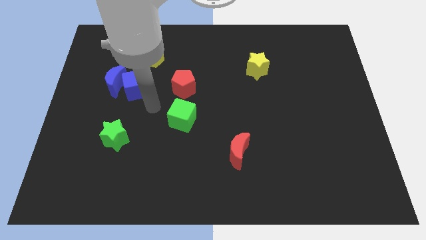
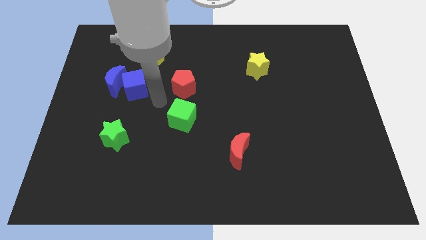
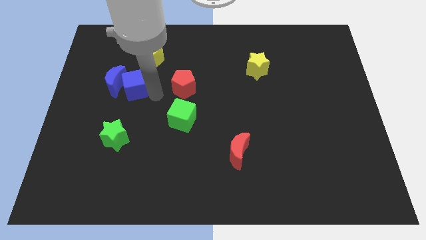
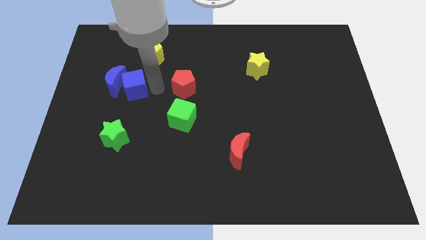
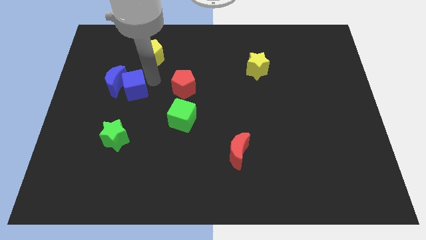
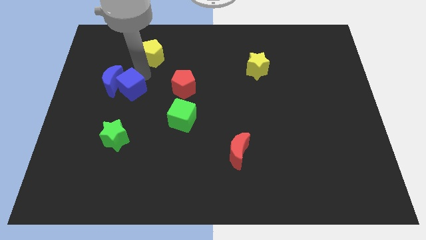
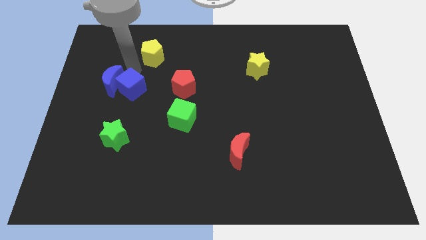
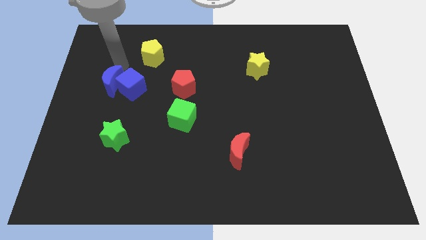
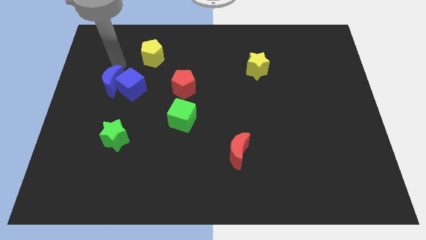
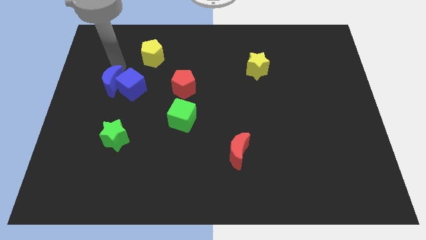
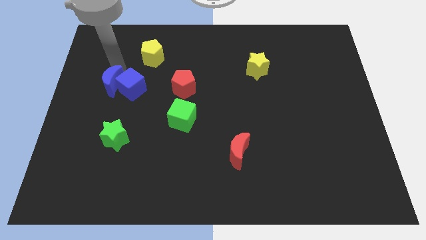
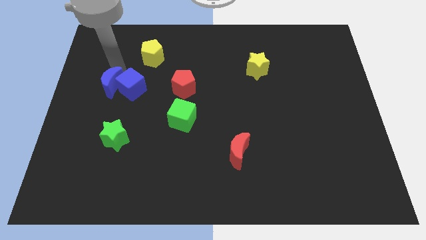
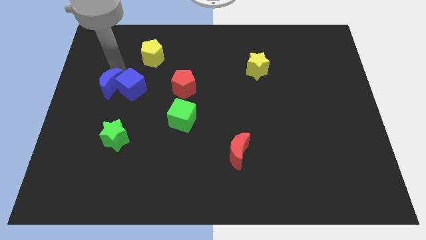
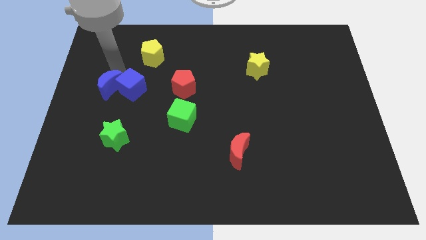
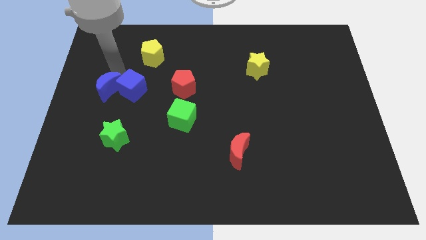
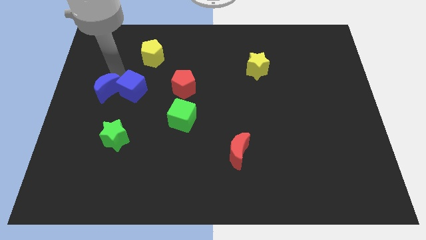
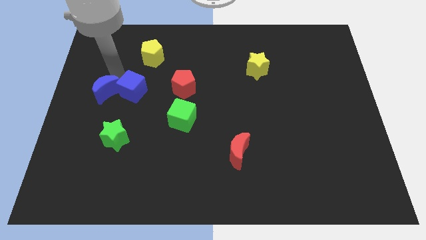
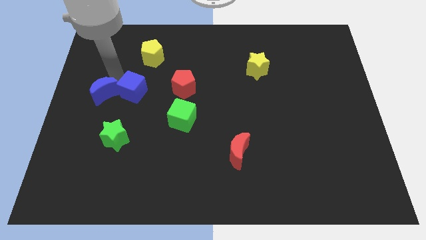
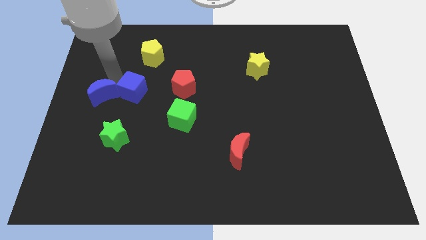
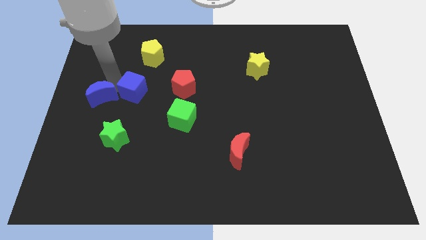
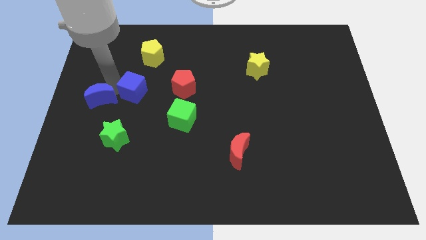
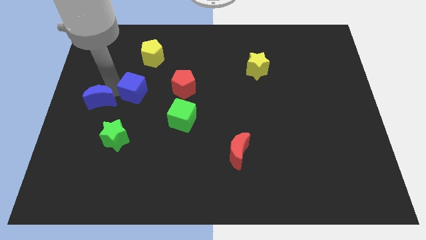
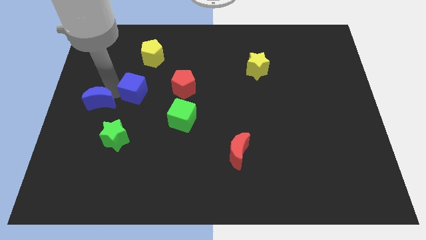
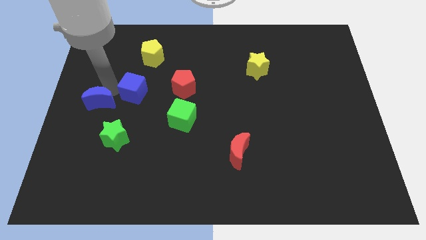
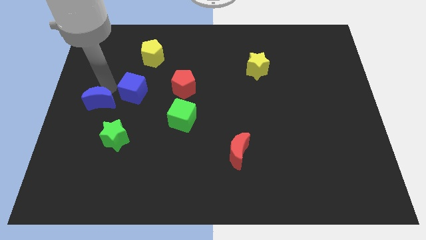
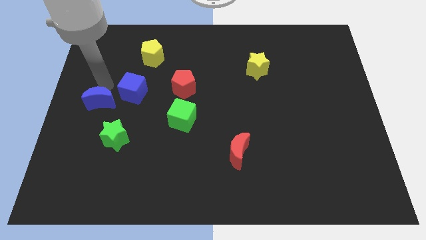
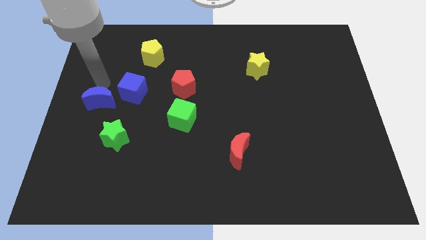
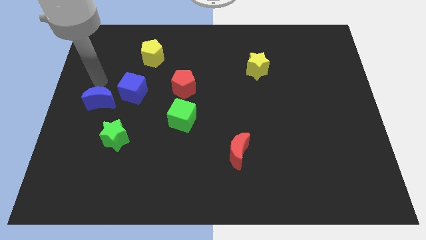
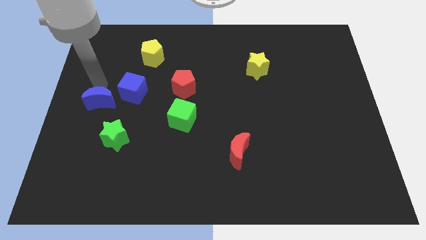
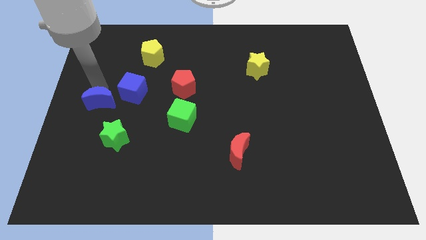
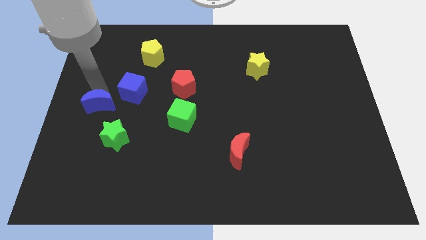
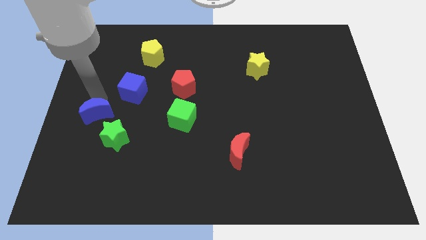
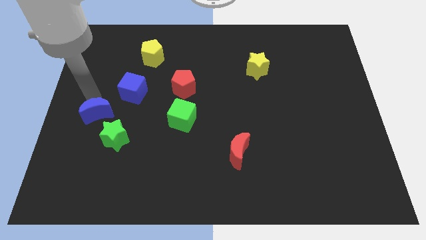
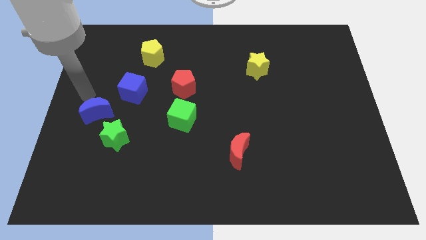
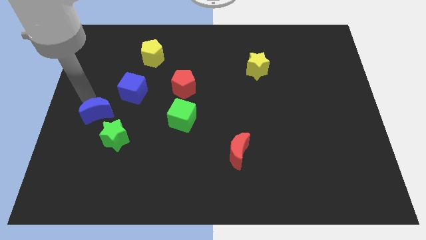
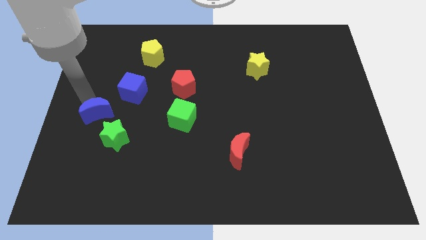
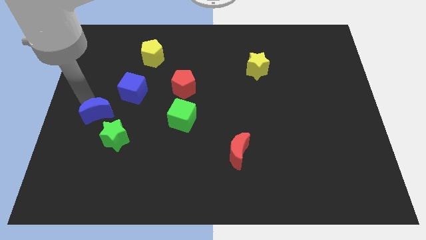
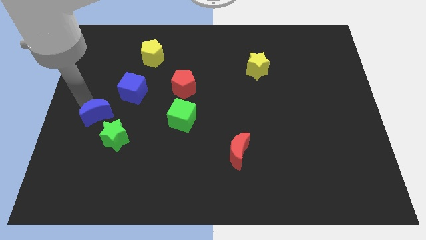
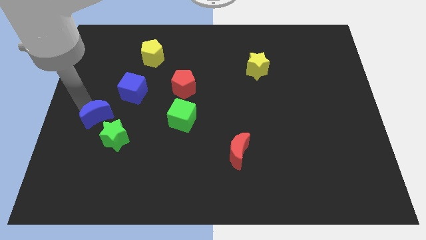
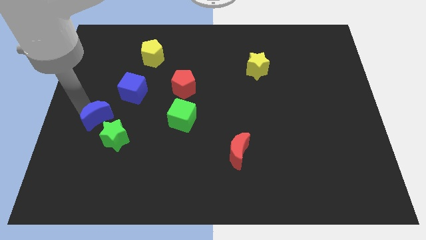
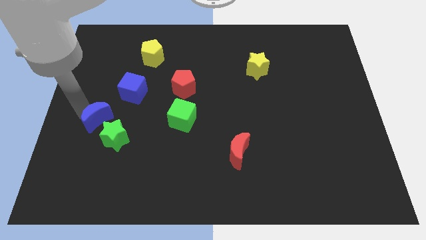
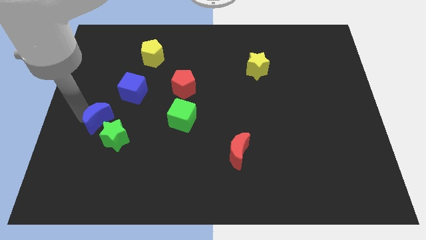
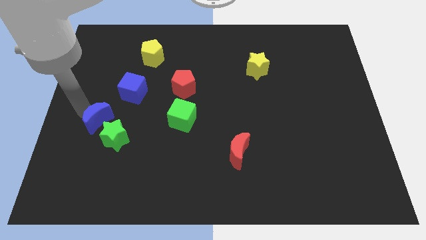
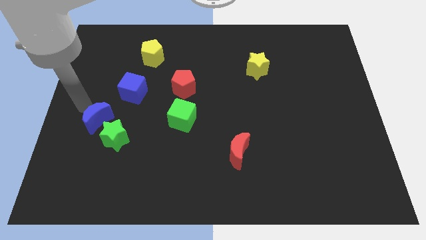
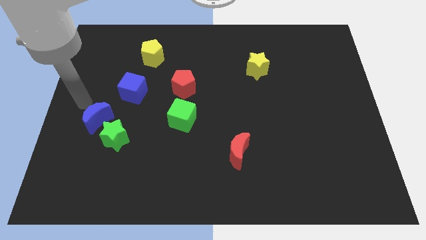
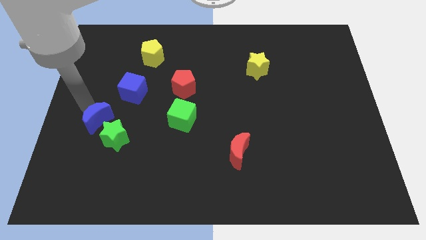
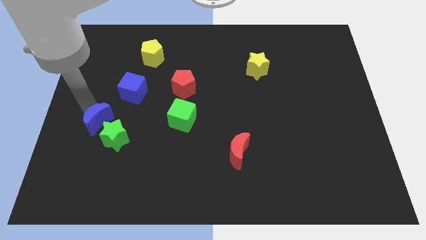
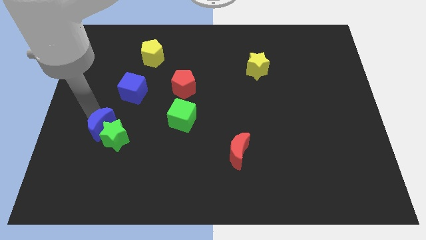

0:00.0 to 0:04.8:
slide the blue moon towards the green star

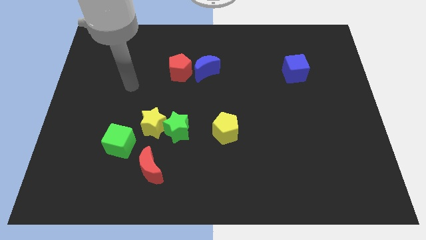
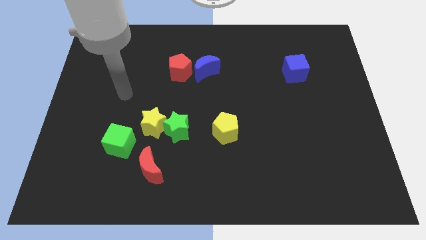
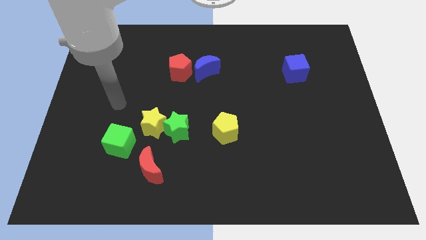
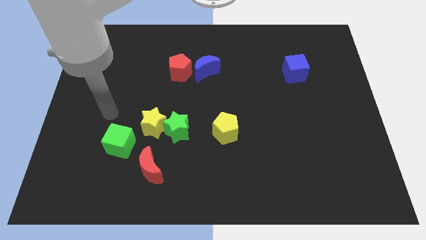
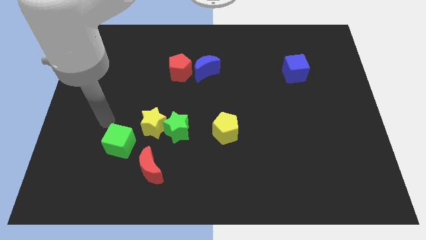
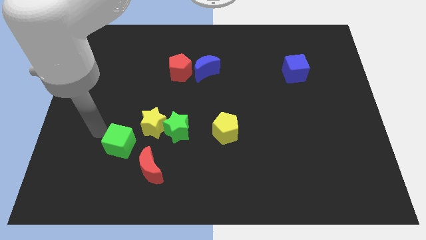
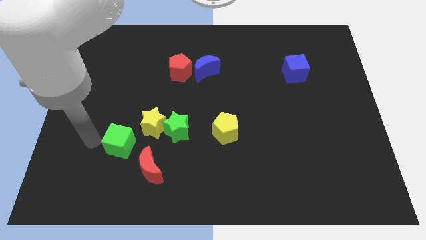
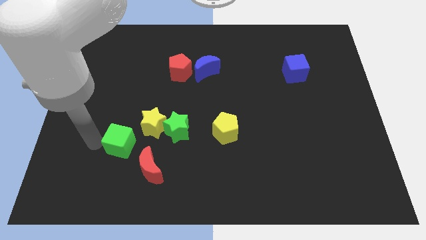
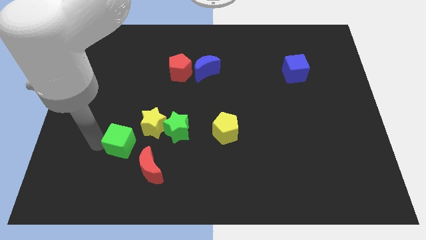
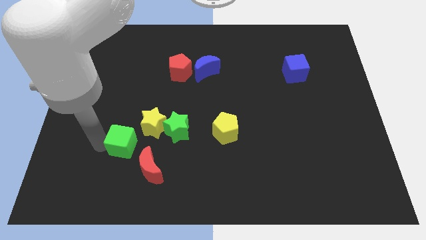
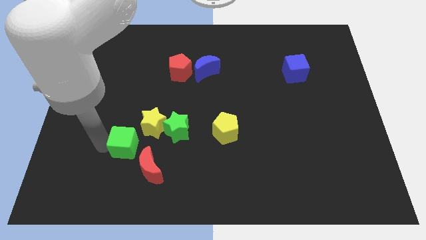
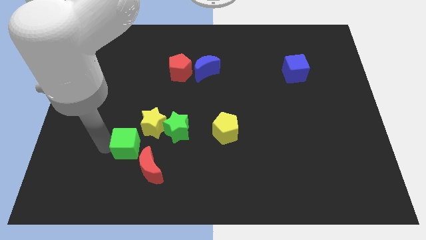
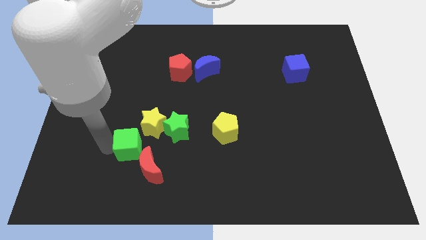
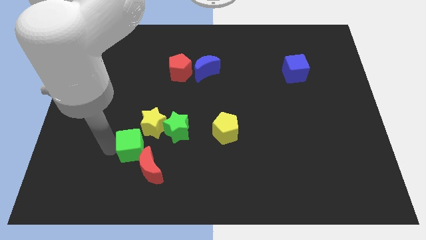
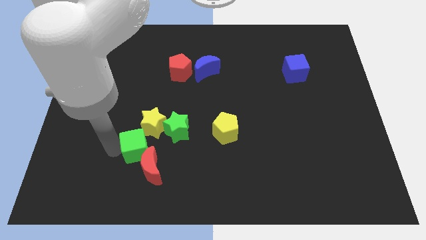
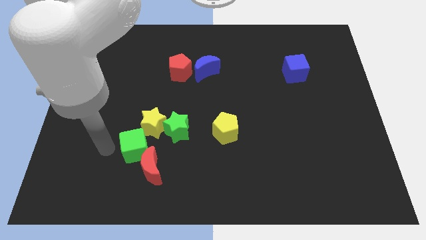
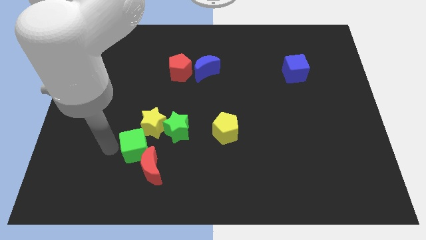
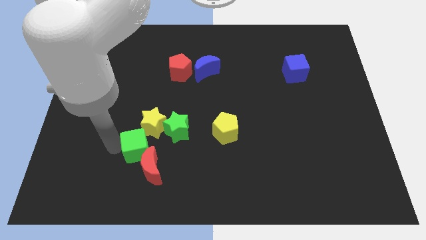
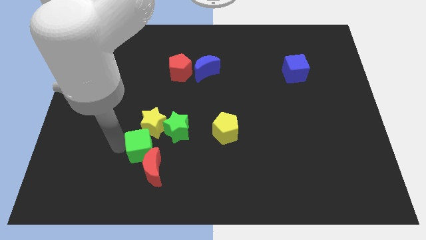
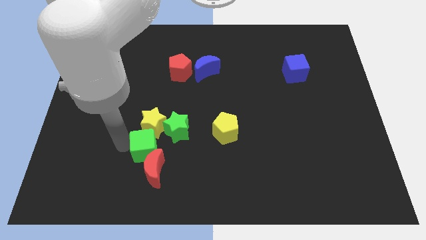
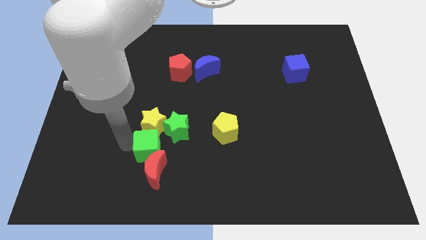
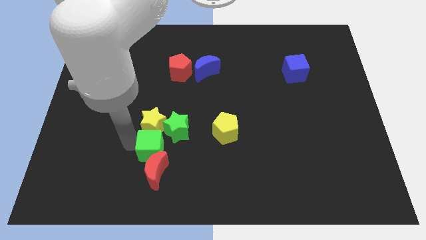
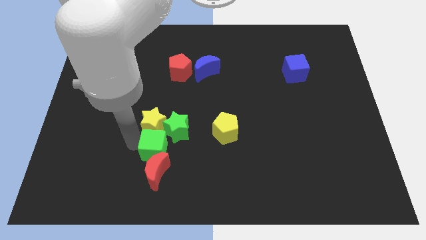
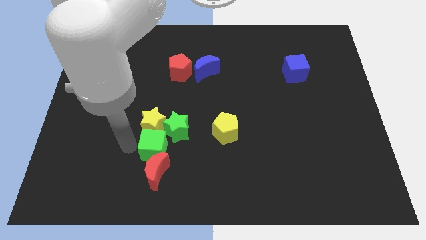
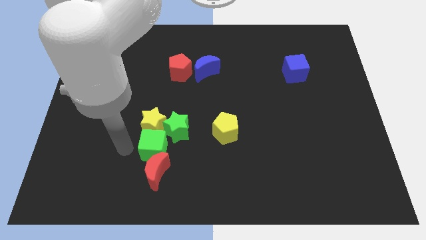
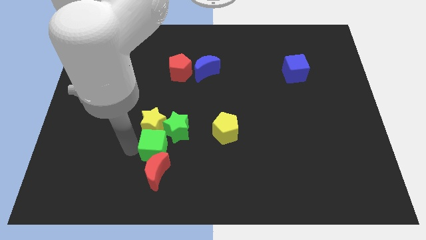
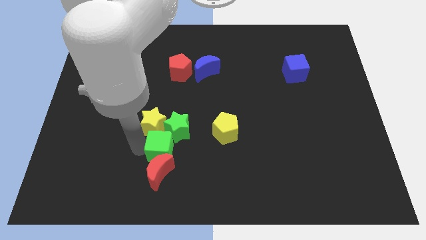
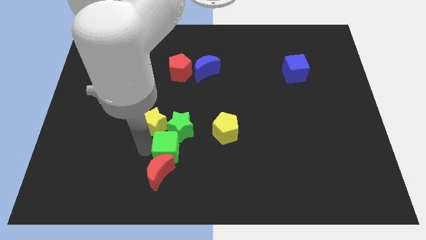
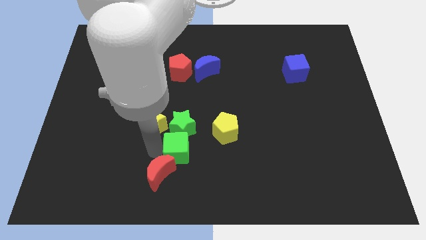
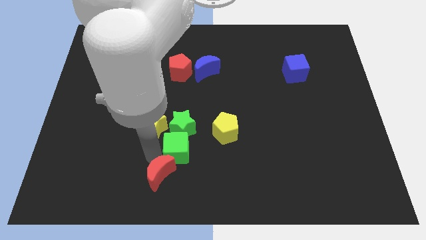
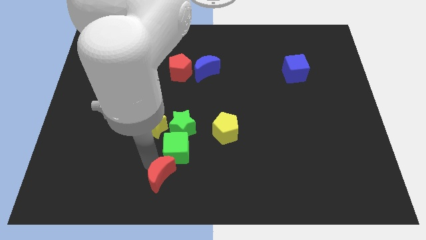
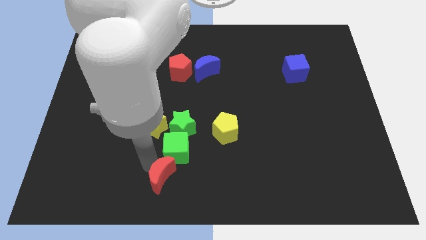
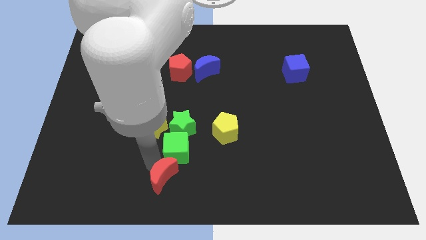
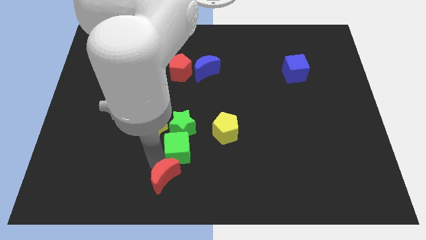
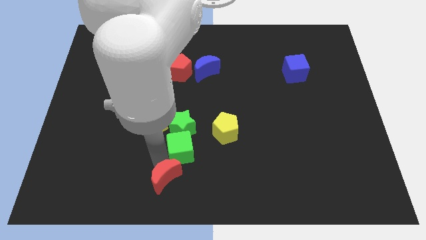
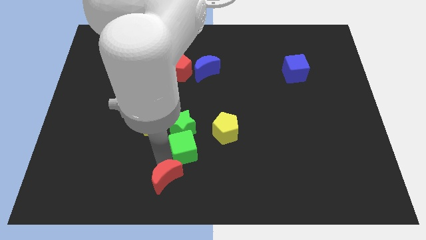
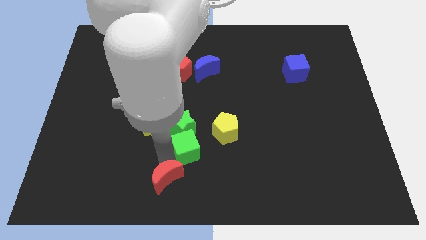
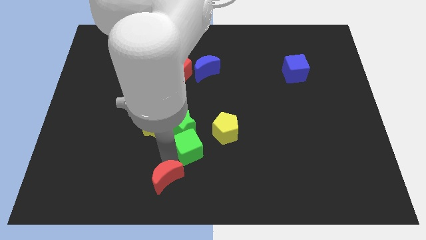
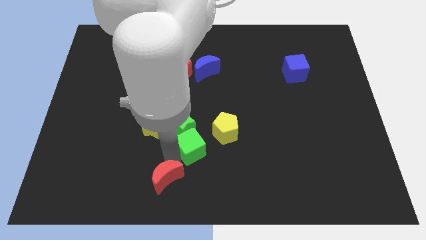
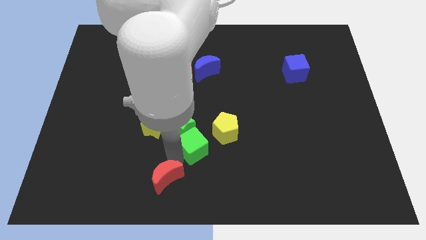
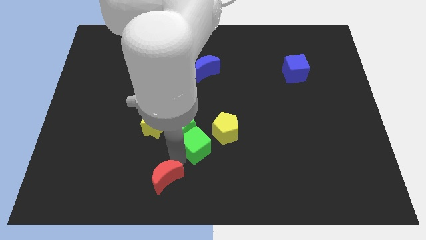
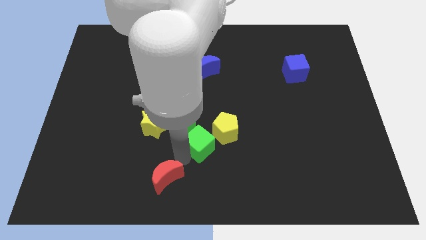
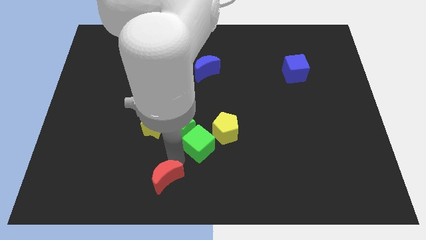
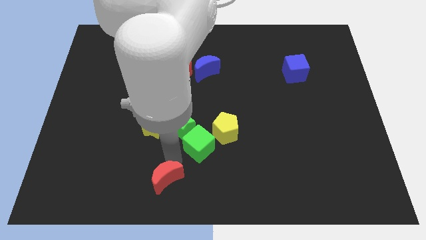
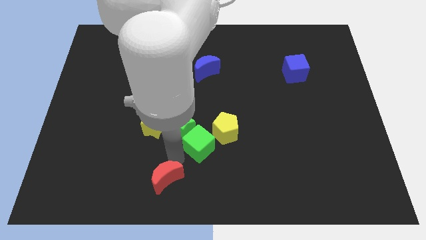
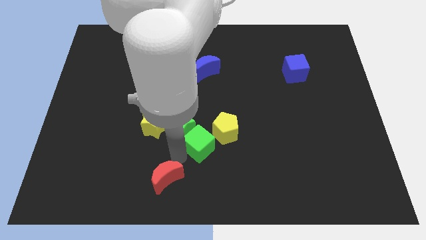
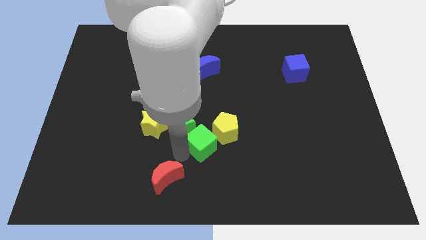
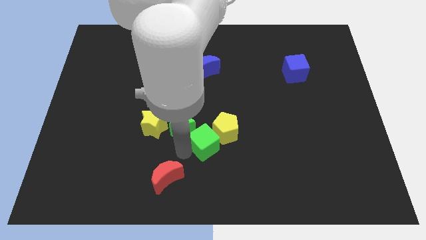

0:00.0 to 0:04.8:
put the green cube close to the yellow pentagon
